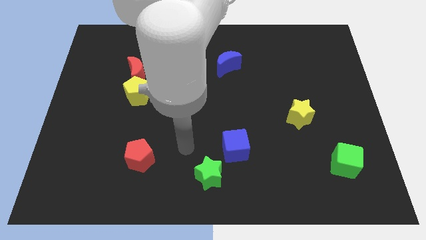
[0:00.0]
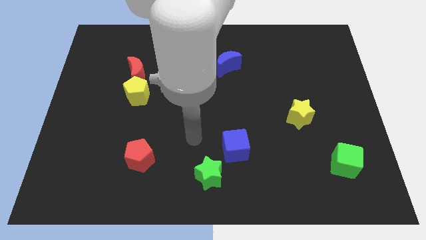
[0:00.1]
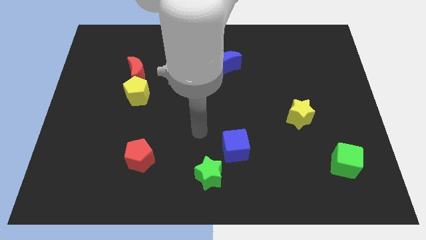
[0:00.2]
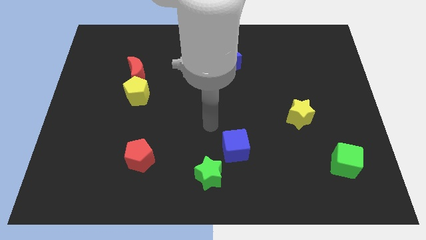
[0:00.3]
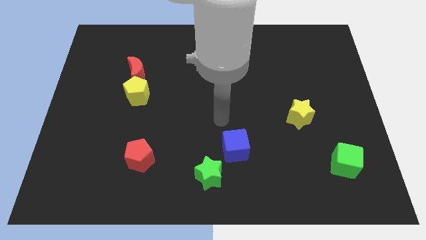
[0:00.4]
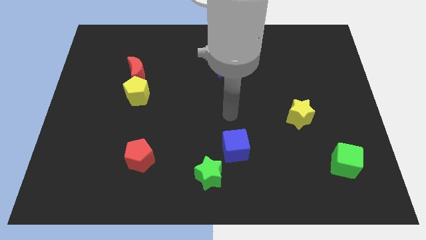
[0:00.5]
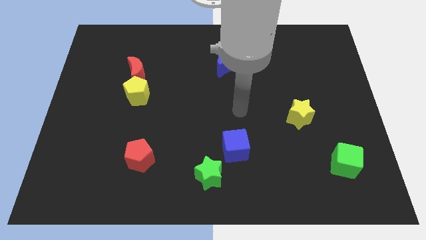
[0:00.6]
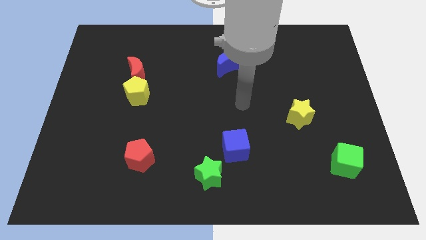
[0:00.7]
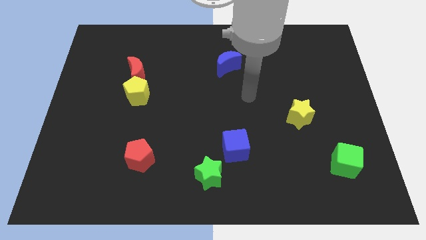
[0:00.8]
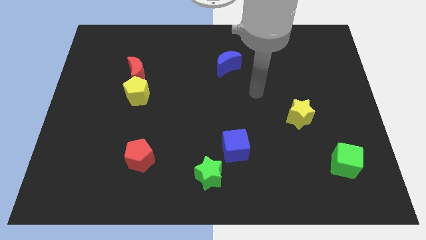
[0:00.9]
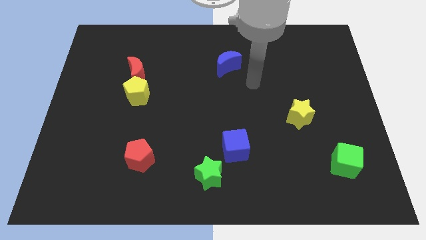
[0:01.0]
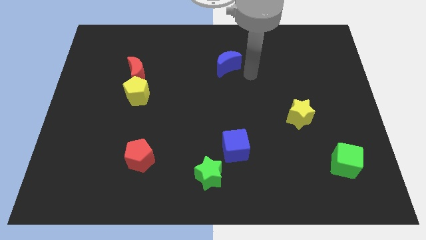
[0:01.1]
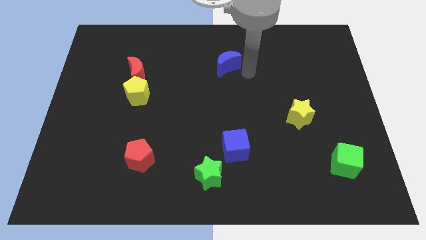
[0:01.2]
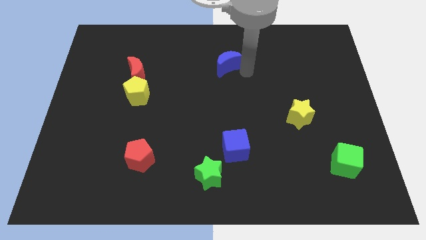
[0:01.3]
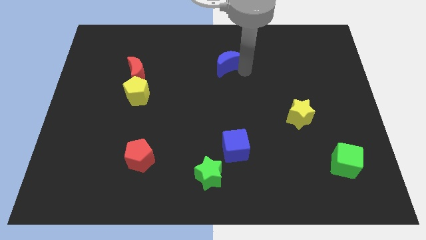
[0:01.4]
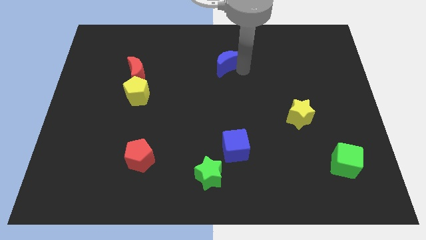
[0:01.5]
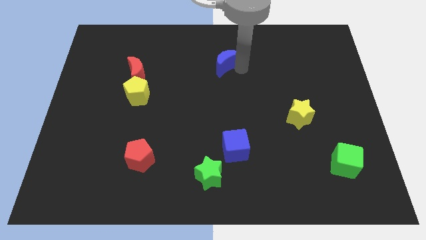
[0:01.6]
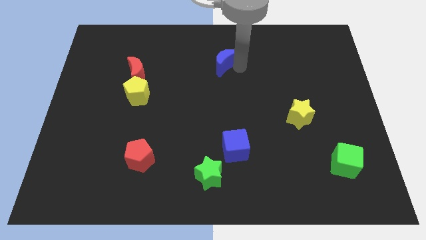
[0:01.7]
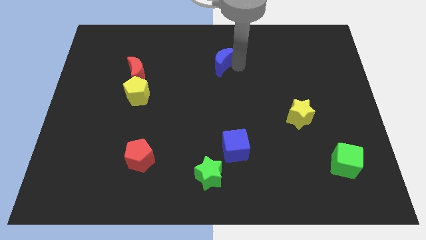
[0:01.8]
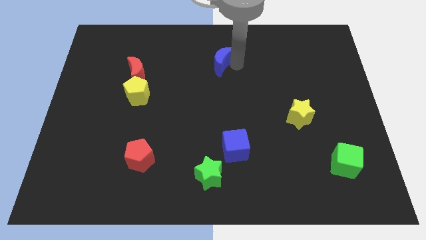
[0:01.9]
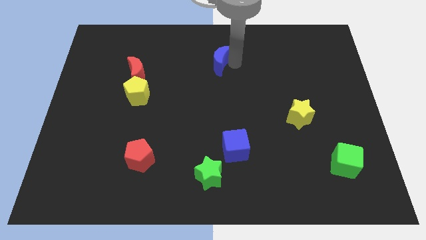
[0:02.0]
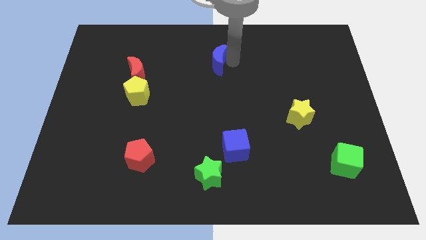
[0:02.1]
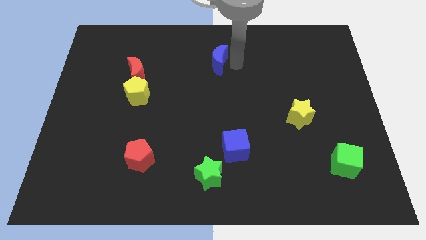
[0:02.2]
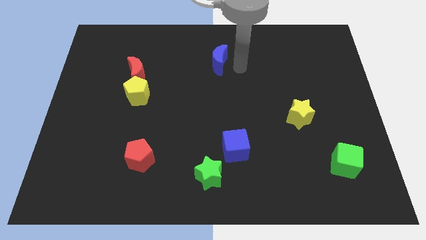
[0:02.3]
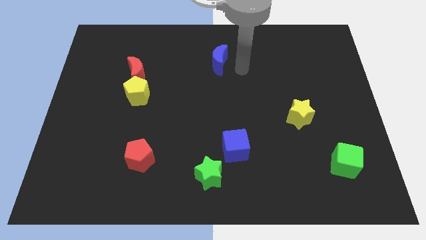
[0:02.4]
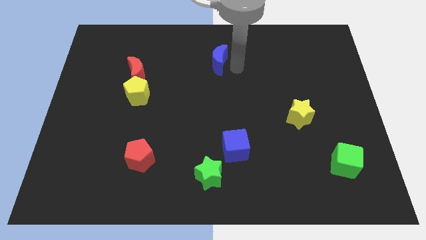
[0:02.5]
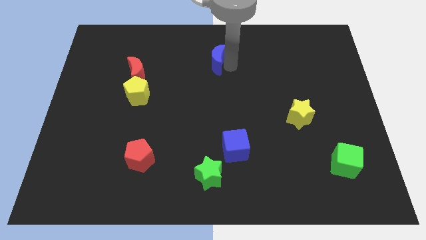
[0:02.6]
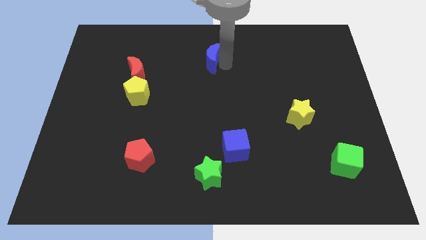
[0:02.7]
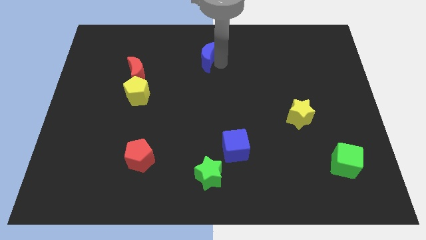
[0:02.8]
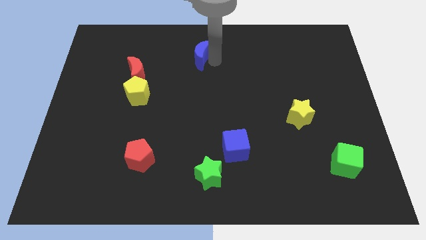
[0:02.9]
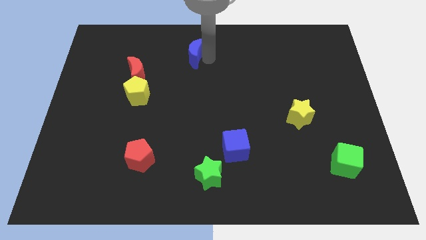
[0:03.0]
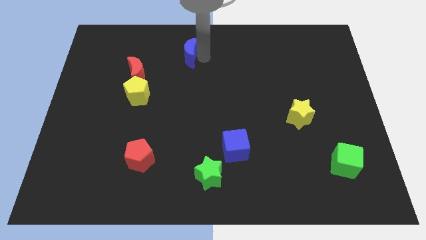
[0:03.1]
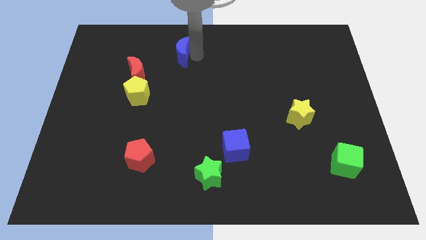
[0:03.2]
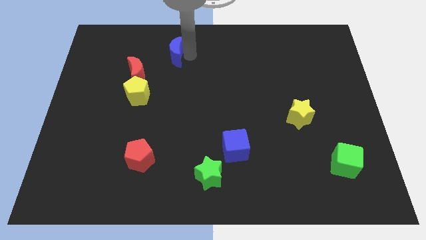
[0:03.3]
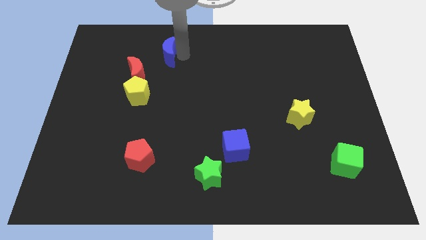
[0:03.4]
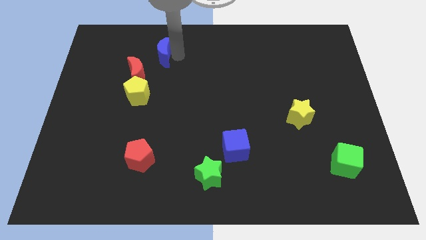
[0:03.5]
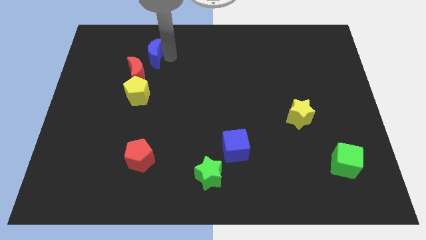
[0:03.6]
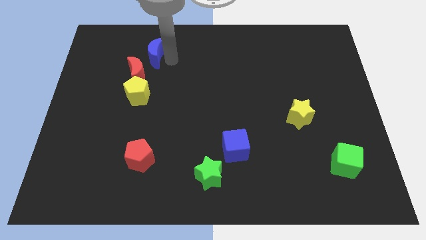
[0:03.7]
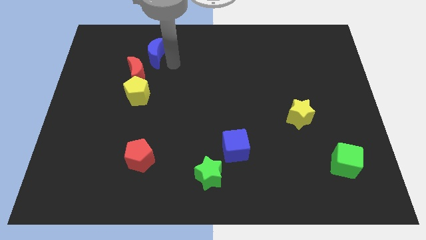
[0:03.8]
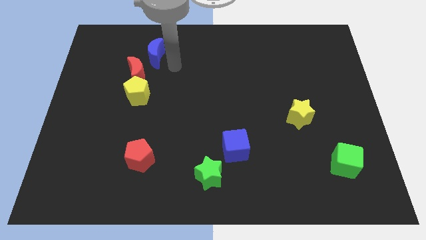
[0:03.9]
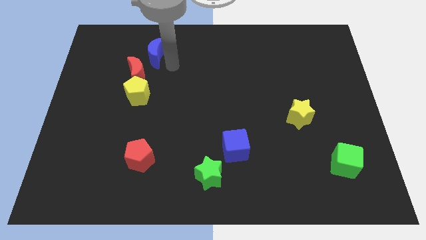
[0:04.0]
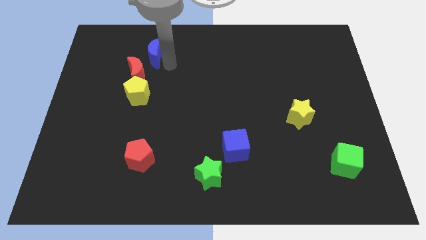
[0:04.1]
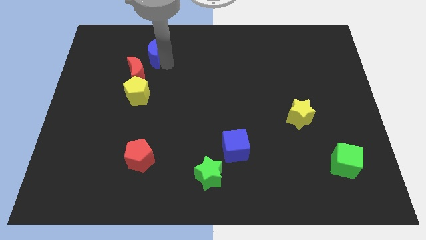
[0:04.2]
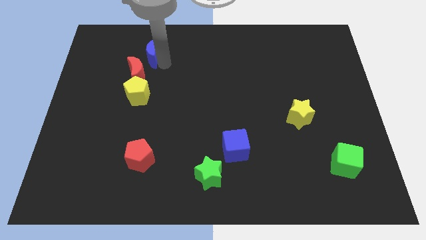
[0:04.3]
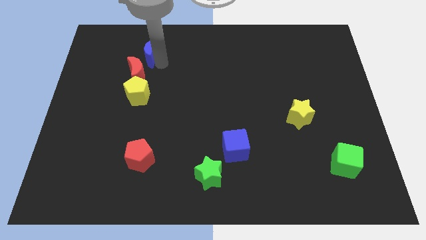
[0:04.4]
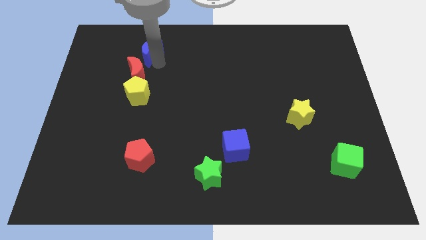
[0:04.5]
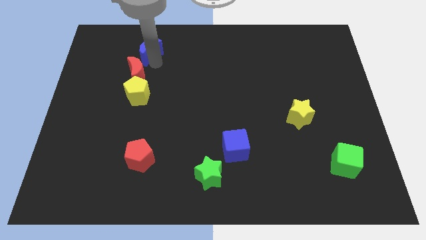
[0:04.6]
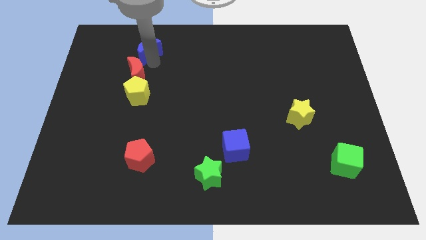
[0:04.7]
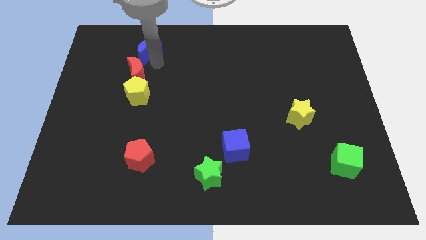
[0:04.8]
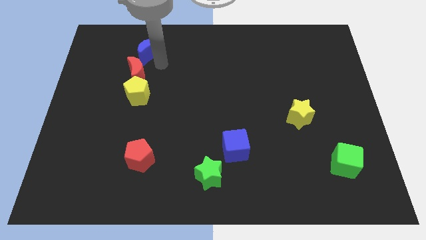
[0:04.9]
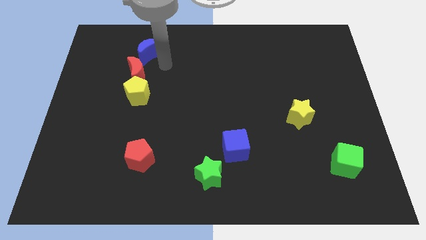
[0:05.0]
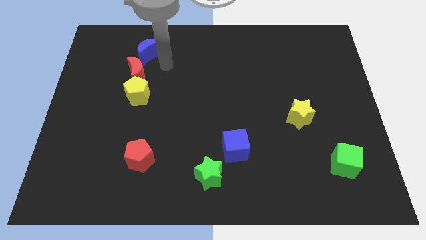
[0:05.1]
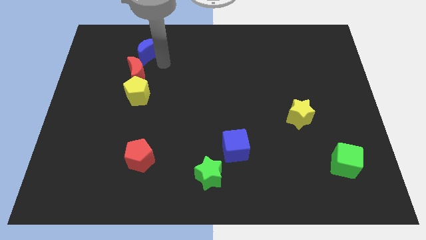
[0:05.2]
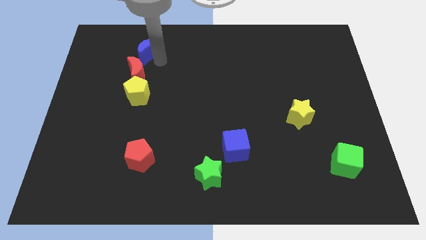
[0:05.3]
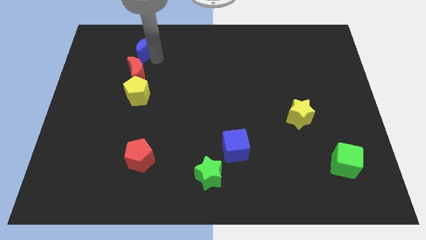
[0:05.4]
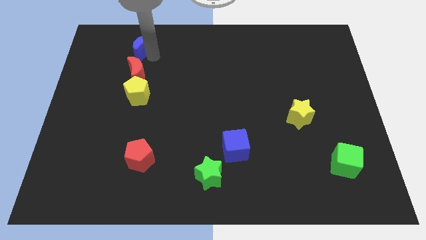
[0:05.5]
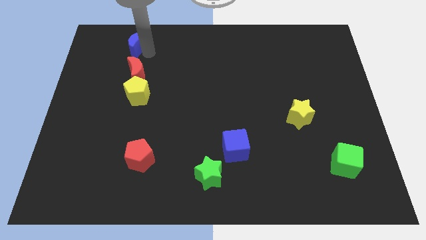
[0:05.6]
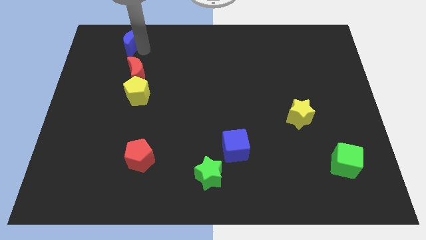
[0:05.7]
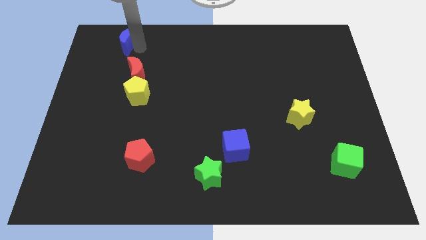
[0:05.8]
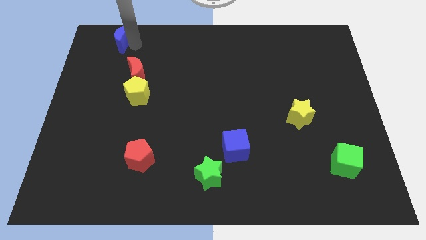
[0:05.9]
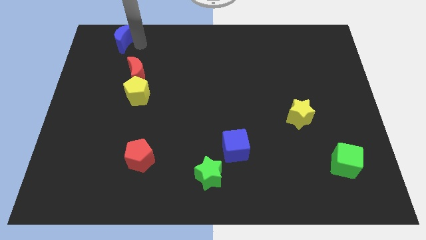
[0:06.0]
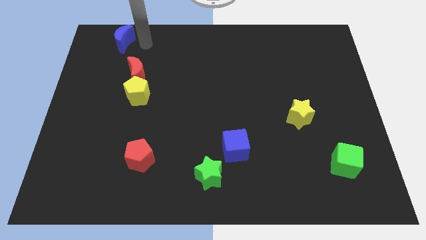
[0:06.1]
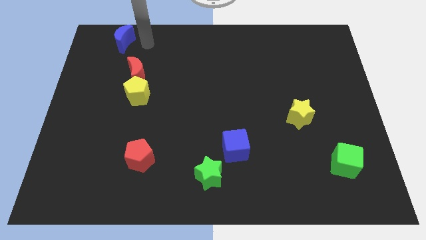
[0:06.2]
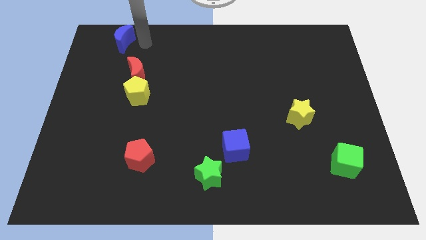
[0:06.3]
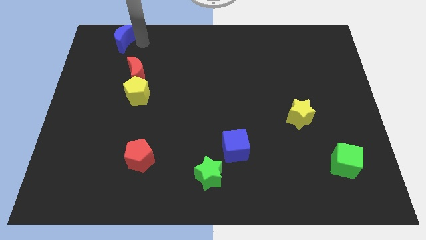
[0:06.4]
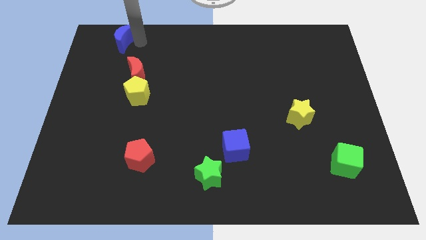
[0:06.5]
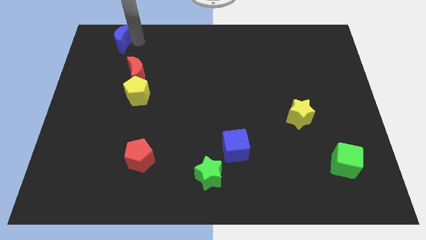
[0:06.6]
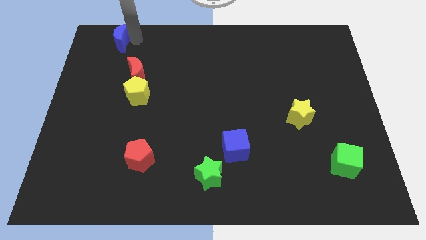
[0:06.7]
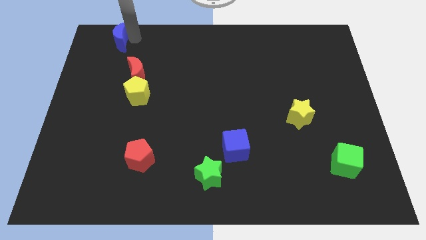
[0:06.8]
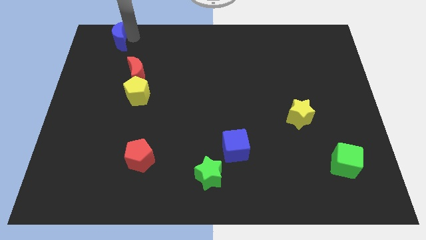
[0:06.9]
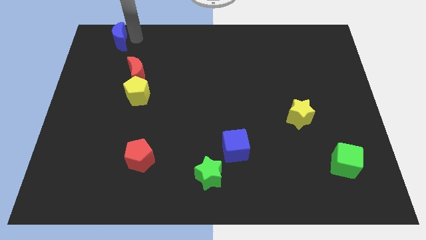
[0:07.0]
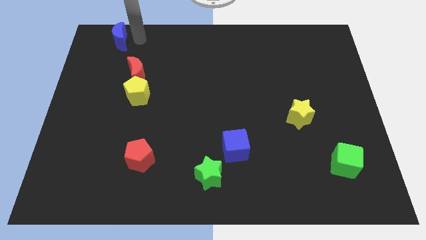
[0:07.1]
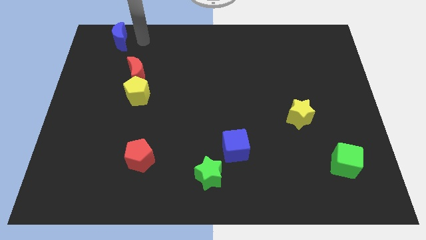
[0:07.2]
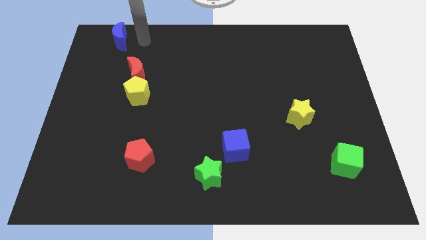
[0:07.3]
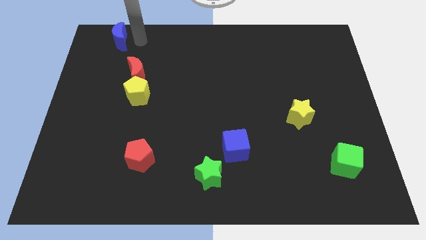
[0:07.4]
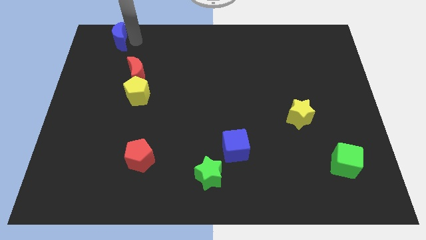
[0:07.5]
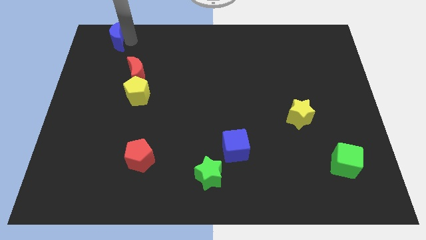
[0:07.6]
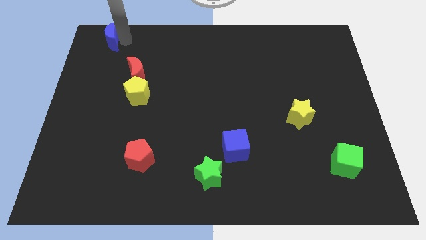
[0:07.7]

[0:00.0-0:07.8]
push the blue moon to the top left
